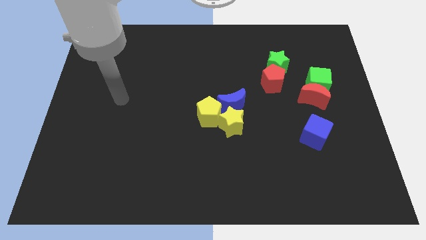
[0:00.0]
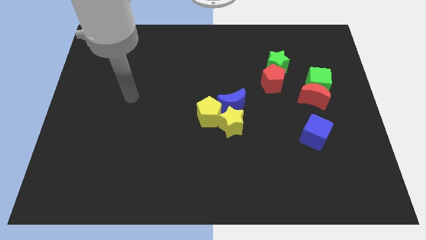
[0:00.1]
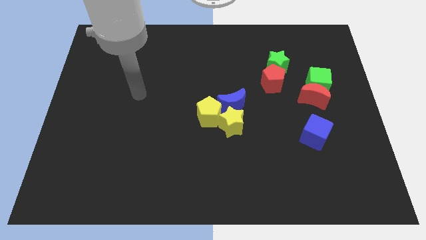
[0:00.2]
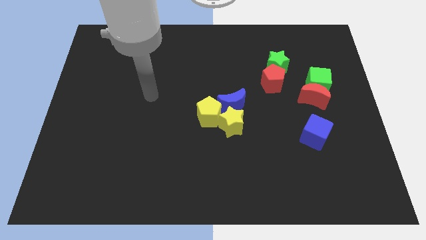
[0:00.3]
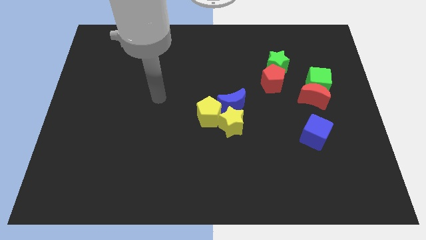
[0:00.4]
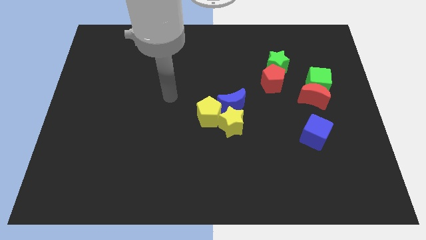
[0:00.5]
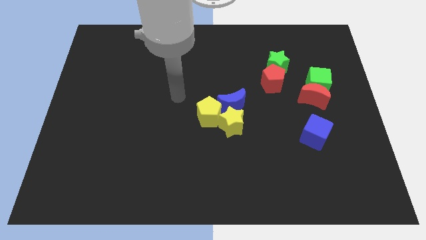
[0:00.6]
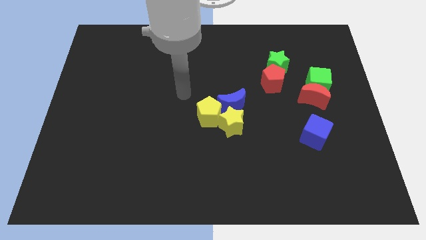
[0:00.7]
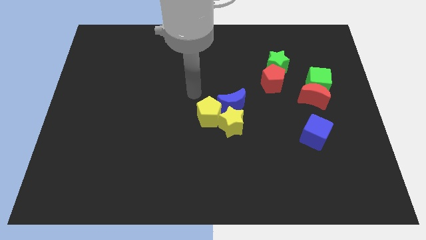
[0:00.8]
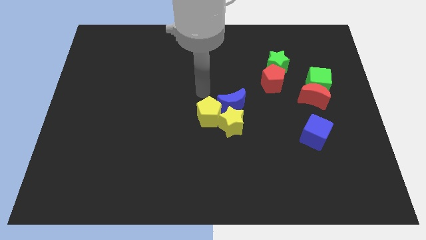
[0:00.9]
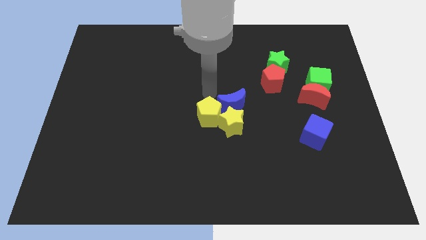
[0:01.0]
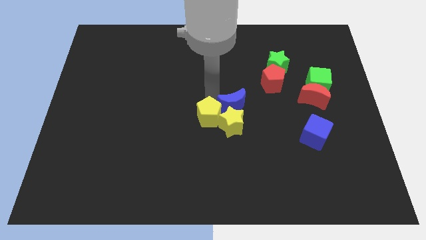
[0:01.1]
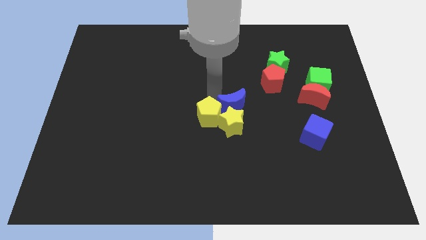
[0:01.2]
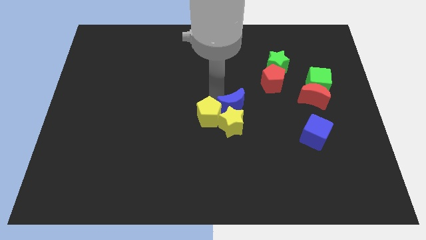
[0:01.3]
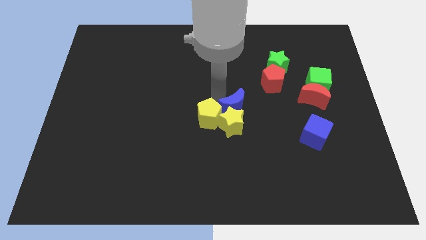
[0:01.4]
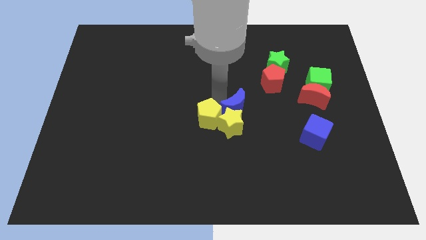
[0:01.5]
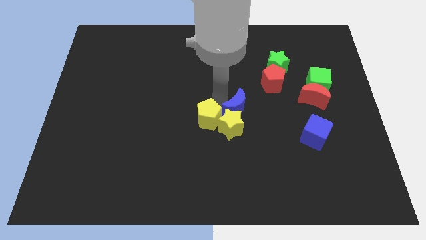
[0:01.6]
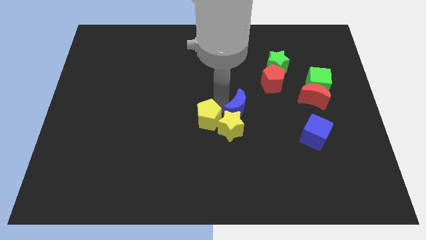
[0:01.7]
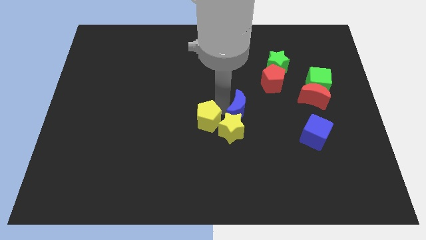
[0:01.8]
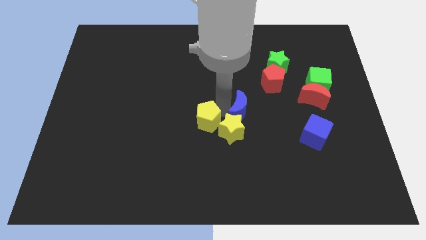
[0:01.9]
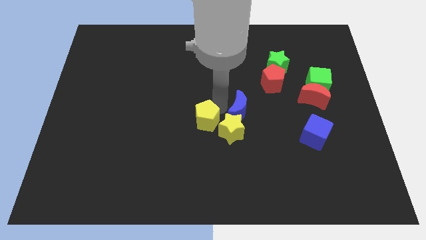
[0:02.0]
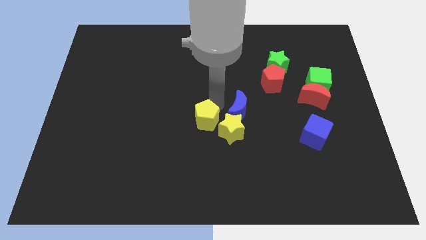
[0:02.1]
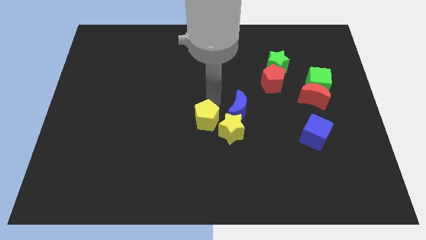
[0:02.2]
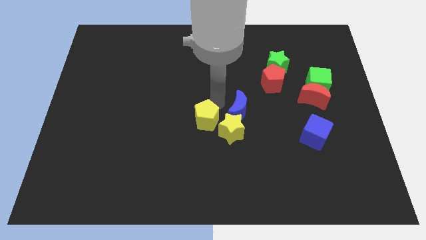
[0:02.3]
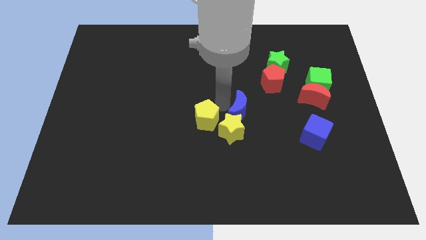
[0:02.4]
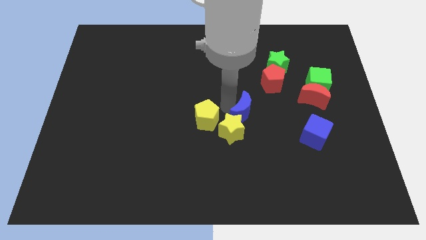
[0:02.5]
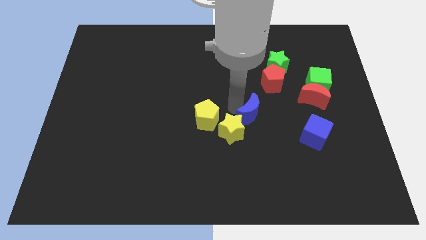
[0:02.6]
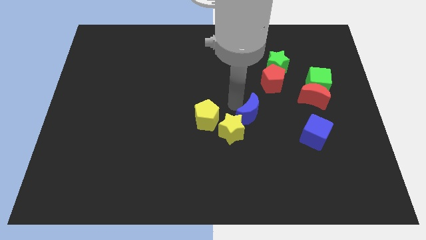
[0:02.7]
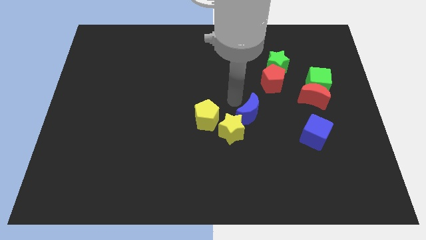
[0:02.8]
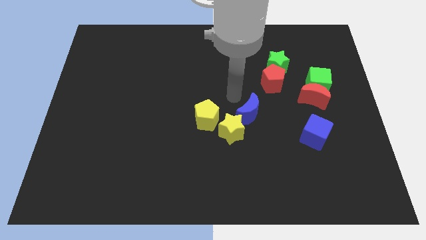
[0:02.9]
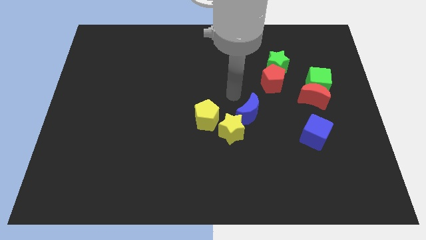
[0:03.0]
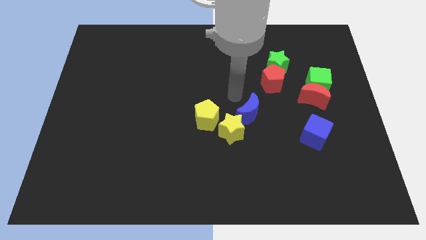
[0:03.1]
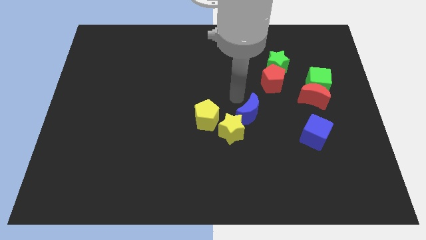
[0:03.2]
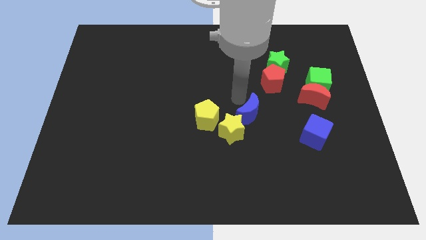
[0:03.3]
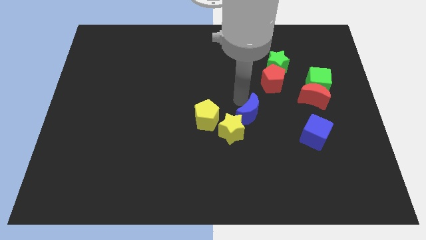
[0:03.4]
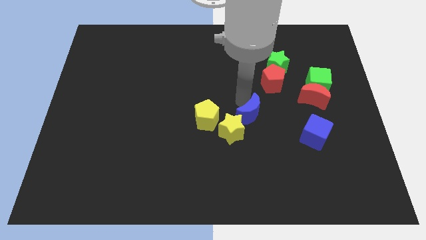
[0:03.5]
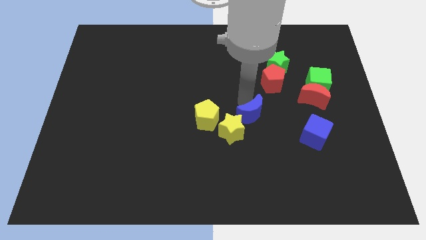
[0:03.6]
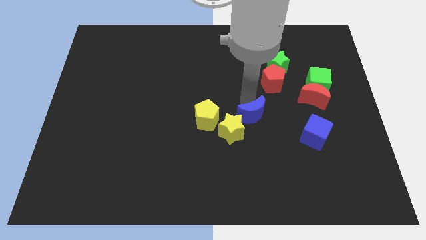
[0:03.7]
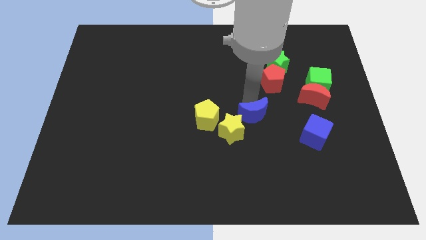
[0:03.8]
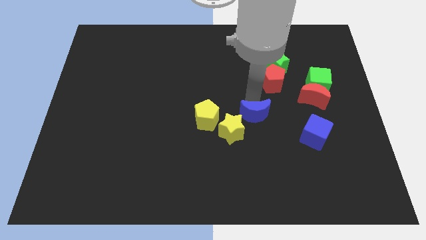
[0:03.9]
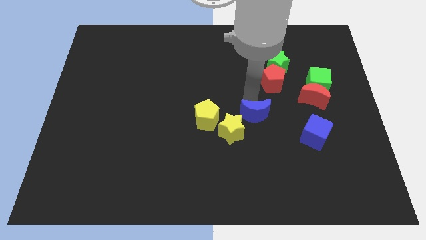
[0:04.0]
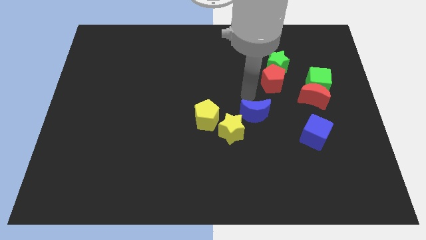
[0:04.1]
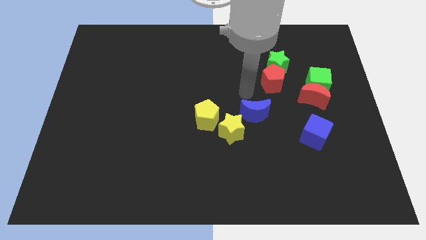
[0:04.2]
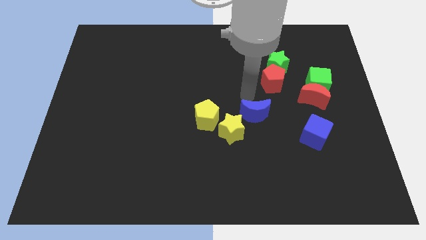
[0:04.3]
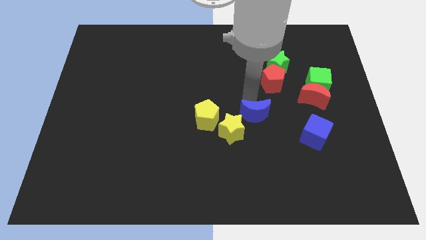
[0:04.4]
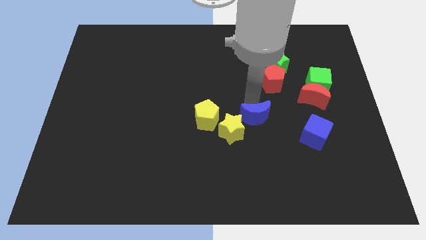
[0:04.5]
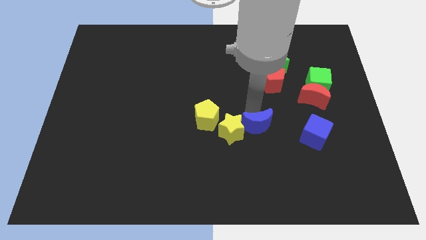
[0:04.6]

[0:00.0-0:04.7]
push the blue moon downwards and right a little bit

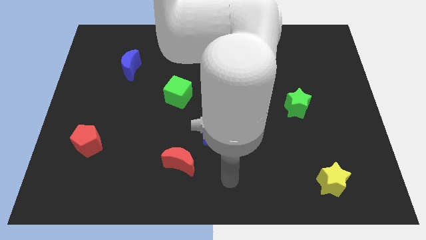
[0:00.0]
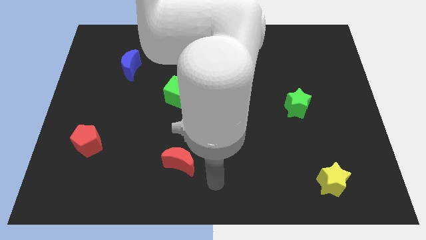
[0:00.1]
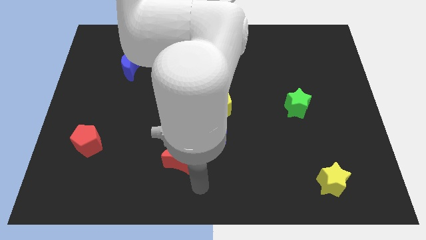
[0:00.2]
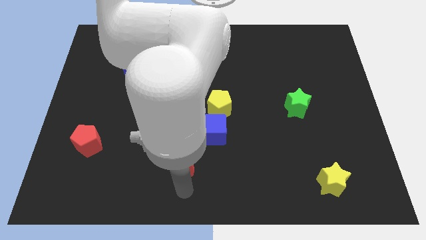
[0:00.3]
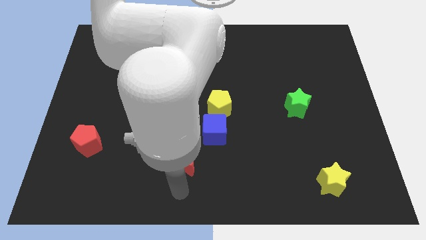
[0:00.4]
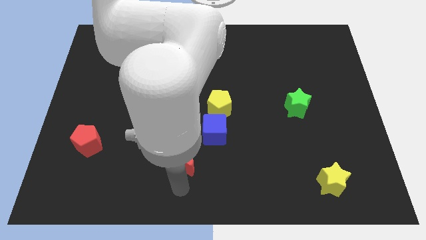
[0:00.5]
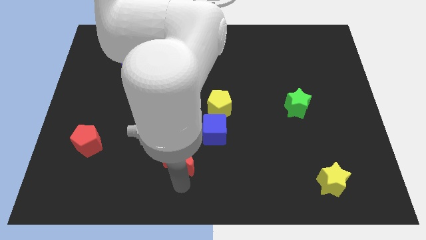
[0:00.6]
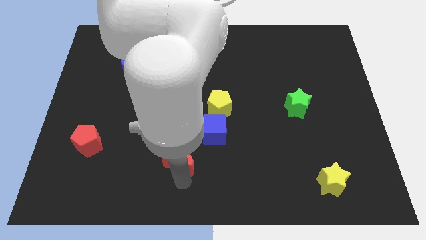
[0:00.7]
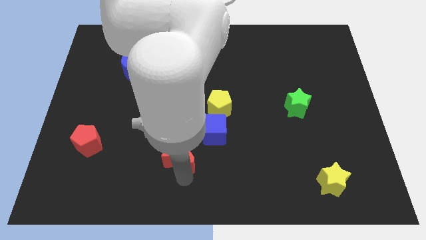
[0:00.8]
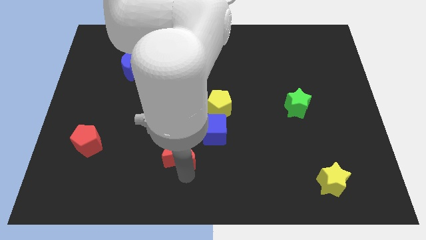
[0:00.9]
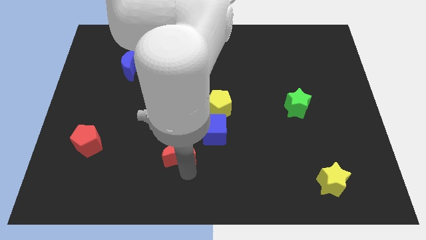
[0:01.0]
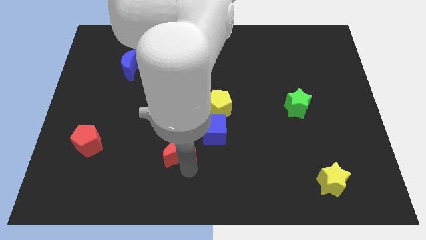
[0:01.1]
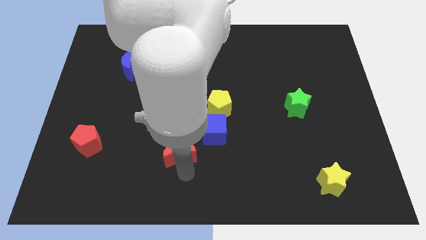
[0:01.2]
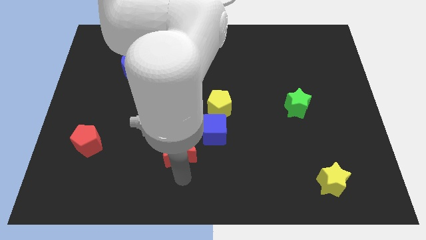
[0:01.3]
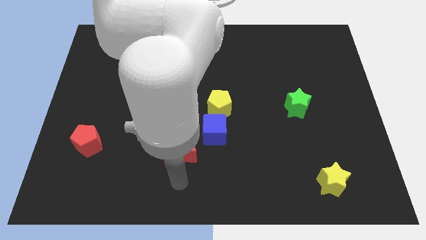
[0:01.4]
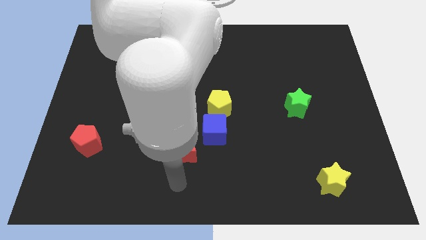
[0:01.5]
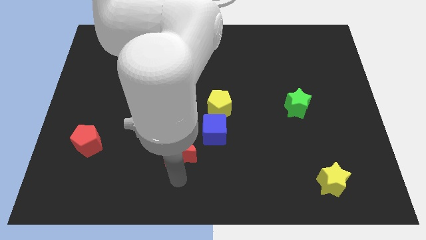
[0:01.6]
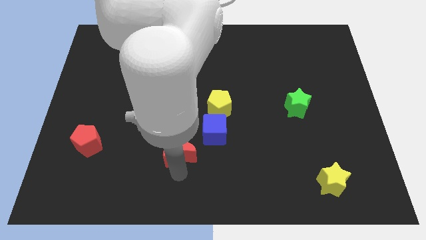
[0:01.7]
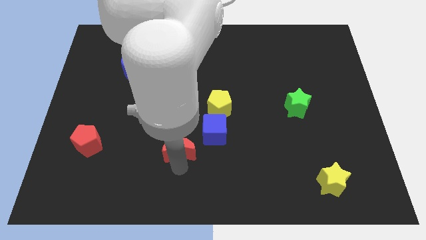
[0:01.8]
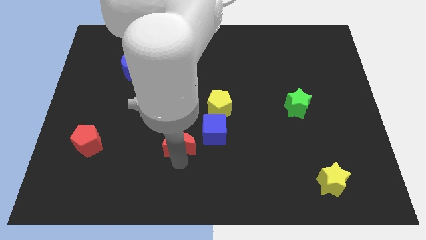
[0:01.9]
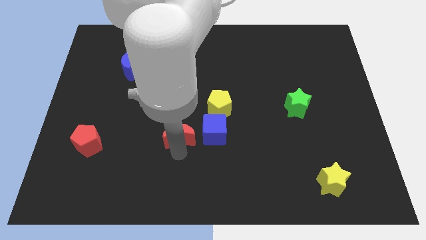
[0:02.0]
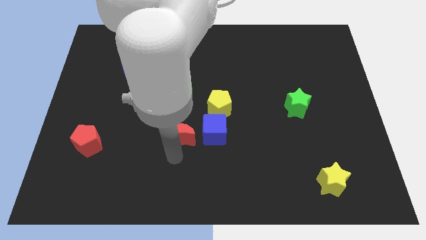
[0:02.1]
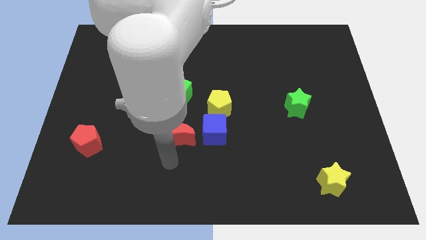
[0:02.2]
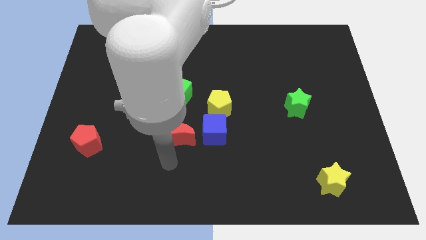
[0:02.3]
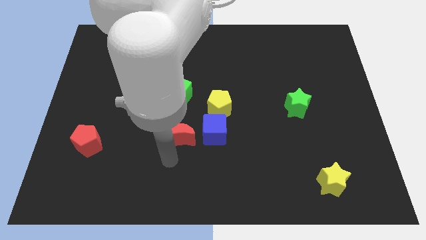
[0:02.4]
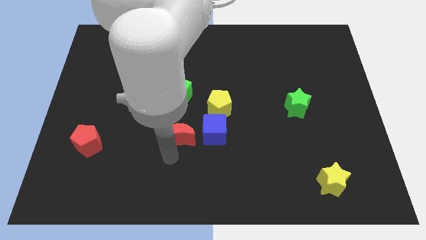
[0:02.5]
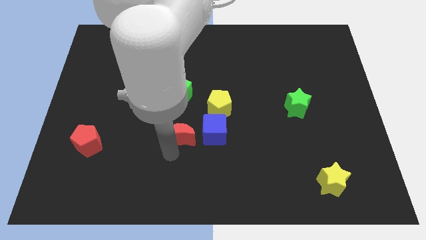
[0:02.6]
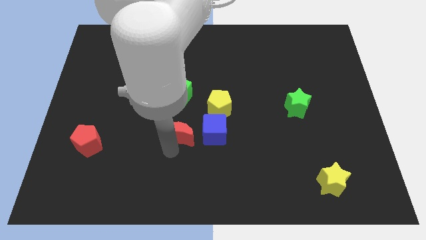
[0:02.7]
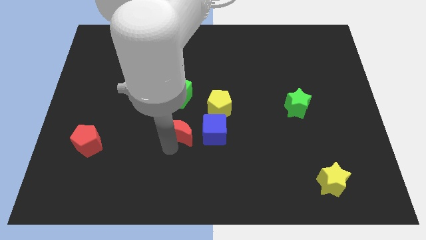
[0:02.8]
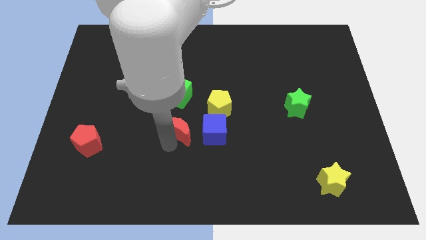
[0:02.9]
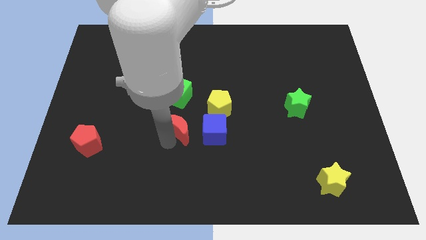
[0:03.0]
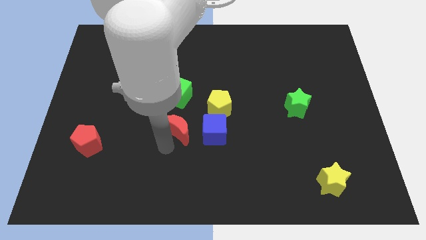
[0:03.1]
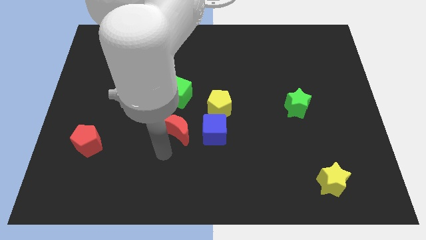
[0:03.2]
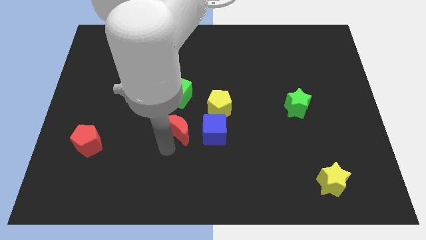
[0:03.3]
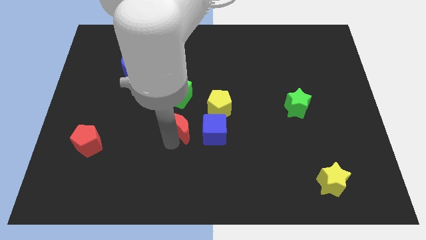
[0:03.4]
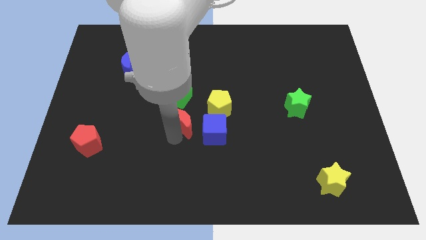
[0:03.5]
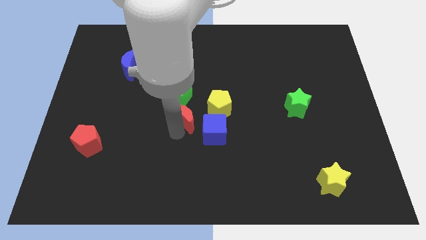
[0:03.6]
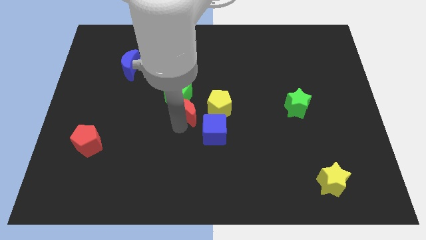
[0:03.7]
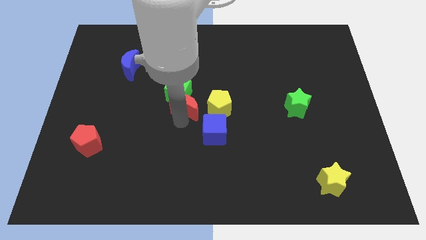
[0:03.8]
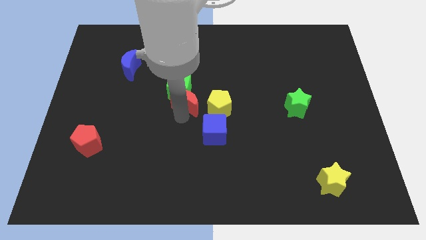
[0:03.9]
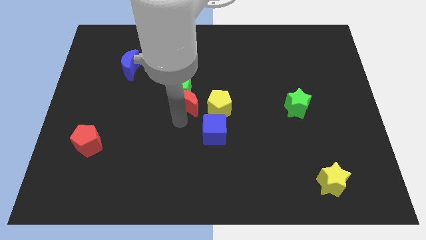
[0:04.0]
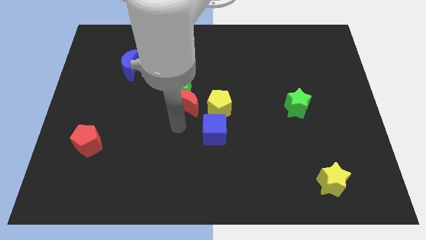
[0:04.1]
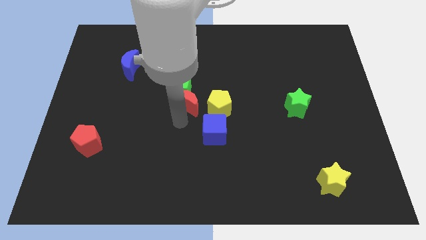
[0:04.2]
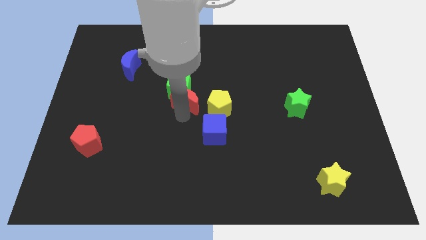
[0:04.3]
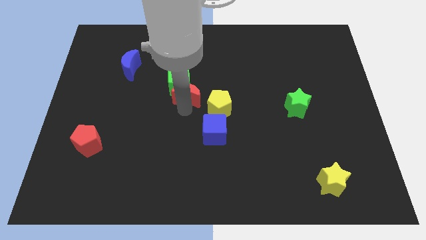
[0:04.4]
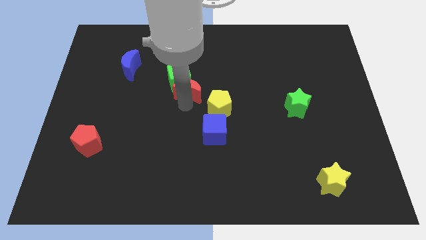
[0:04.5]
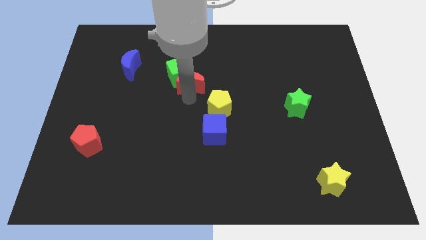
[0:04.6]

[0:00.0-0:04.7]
slide the red moon up
